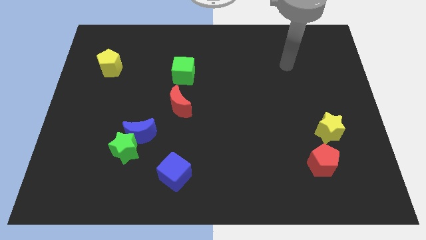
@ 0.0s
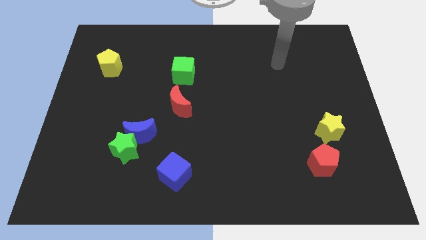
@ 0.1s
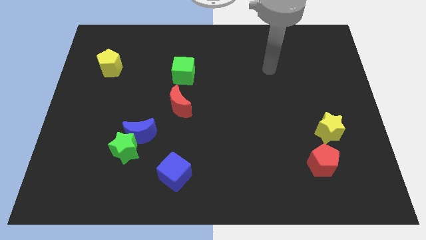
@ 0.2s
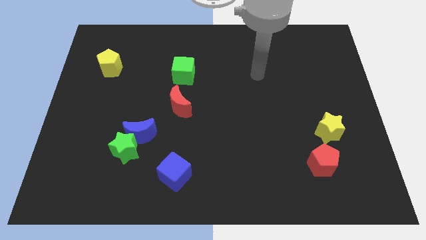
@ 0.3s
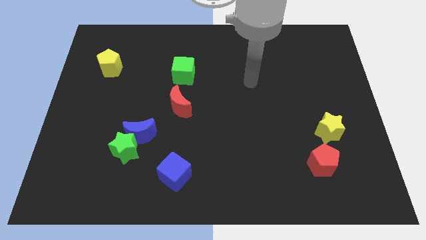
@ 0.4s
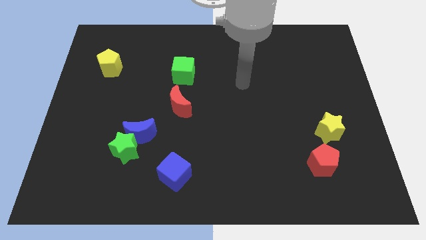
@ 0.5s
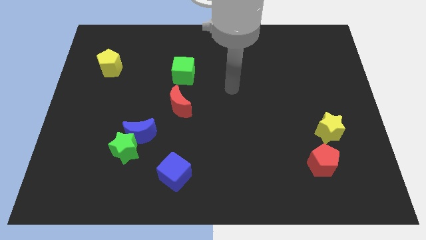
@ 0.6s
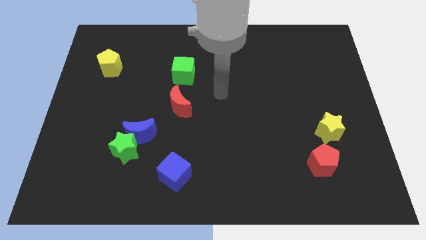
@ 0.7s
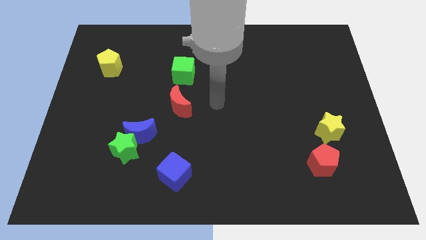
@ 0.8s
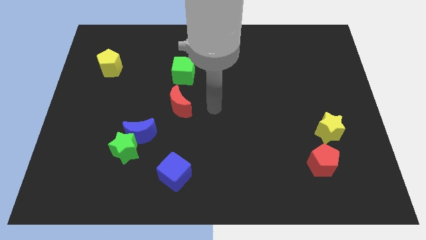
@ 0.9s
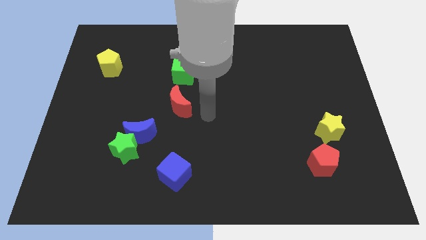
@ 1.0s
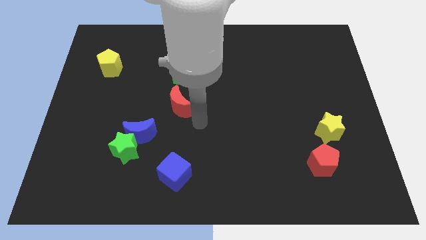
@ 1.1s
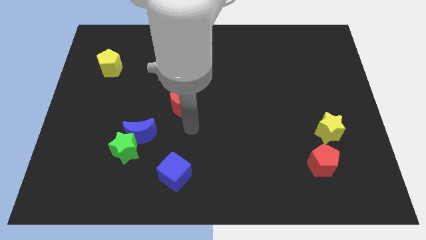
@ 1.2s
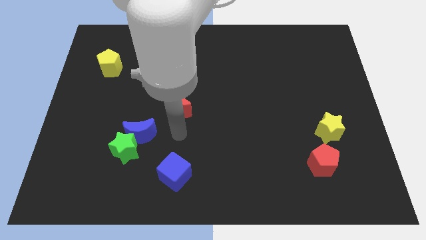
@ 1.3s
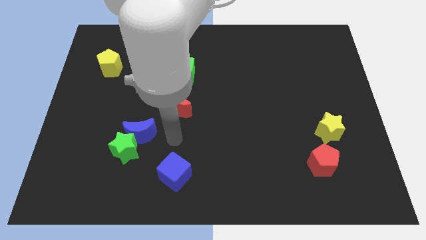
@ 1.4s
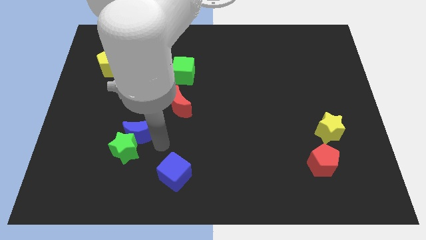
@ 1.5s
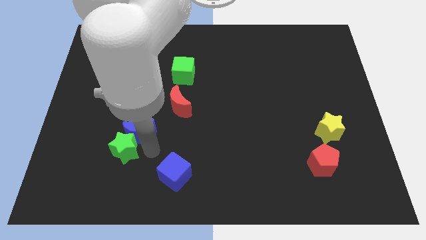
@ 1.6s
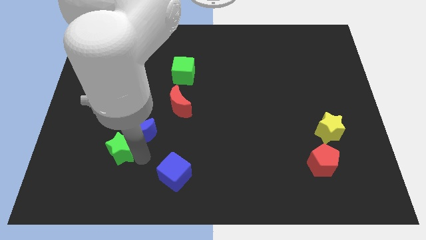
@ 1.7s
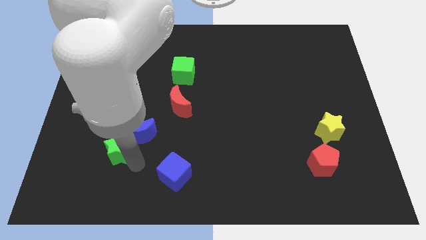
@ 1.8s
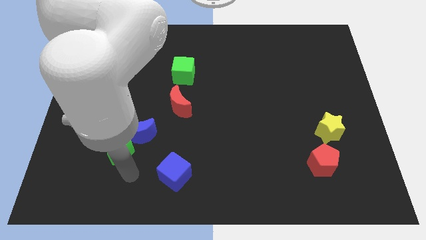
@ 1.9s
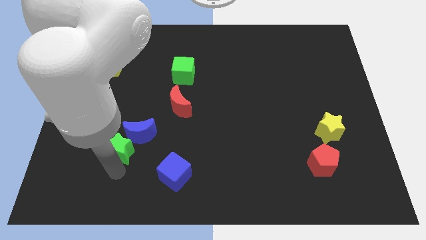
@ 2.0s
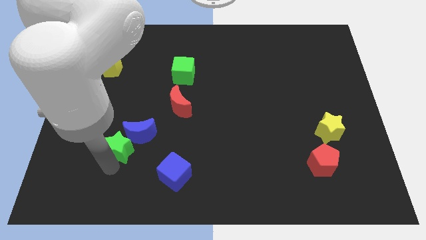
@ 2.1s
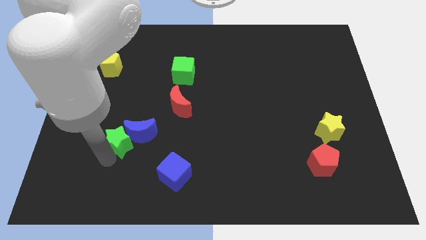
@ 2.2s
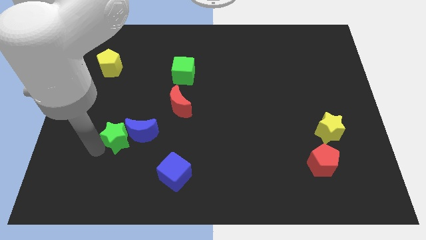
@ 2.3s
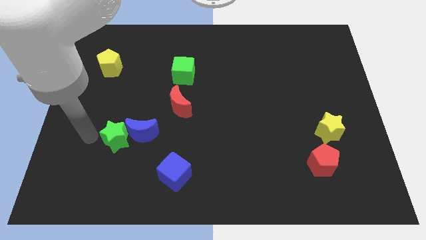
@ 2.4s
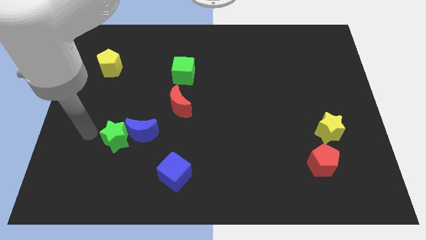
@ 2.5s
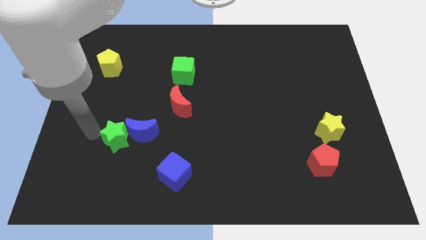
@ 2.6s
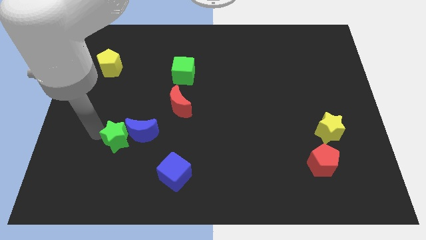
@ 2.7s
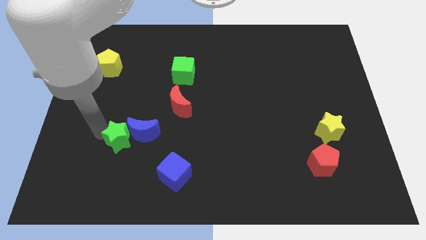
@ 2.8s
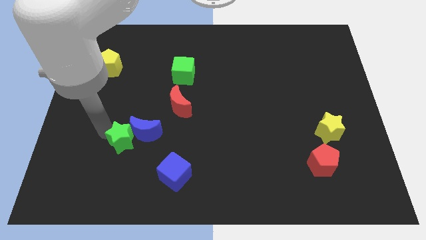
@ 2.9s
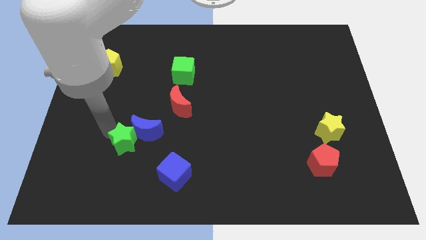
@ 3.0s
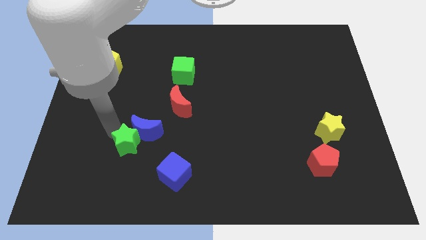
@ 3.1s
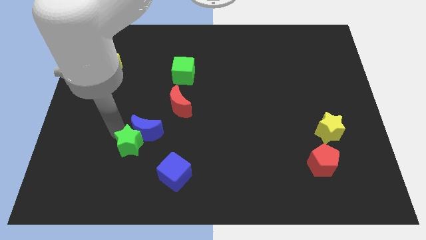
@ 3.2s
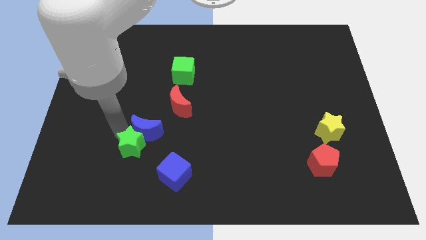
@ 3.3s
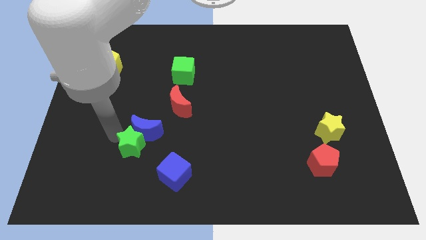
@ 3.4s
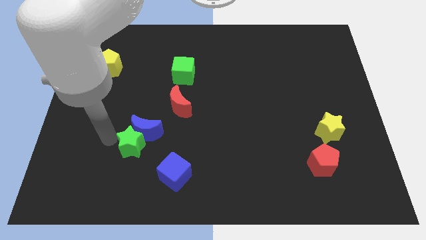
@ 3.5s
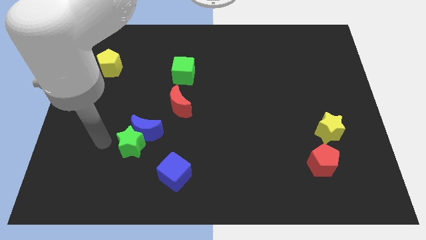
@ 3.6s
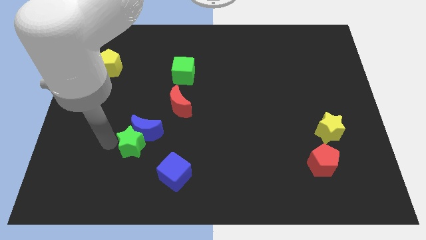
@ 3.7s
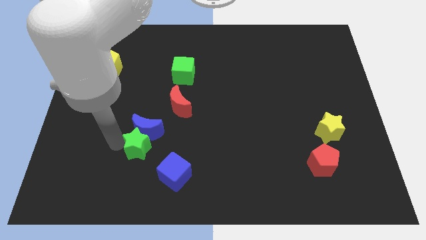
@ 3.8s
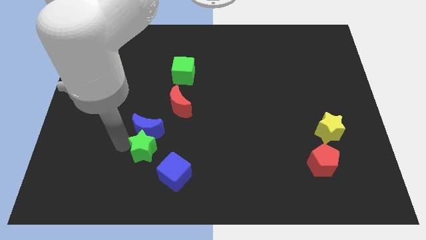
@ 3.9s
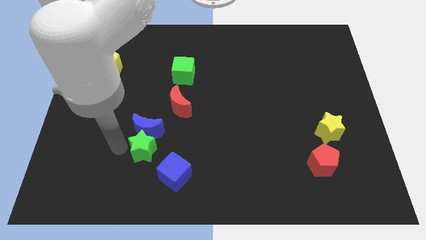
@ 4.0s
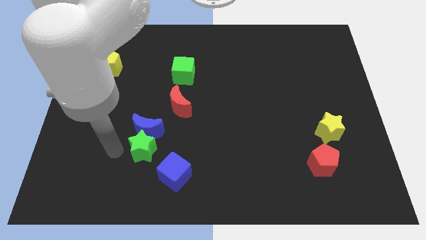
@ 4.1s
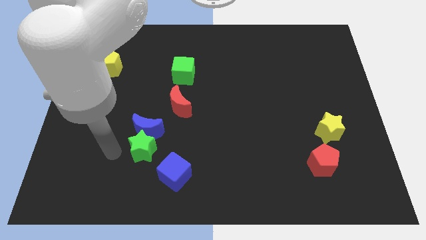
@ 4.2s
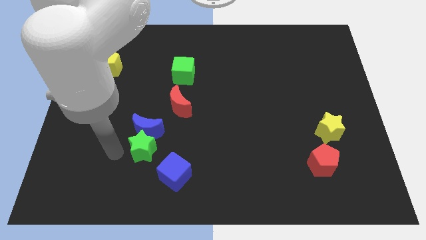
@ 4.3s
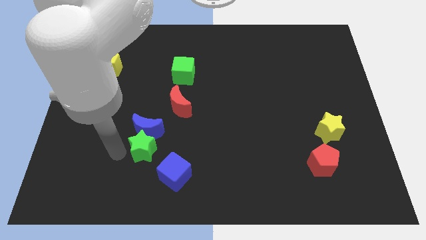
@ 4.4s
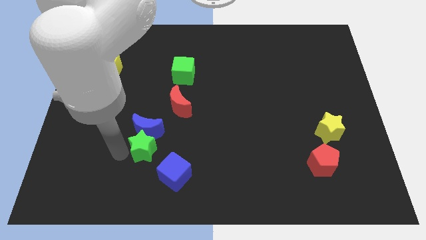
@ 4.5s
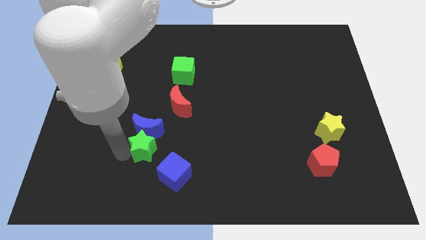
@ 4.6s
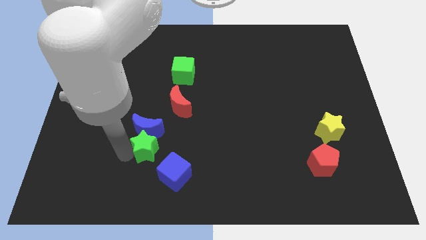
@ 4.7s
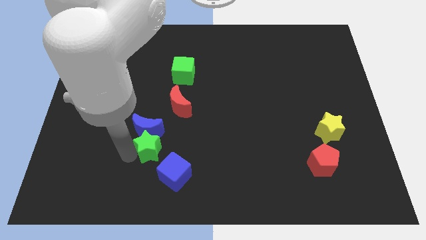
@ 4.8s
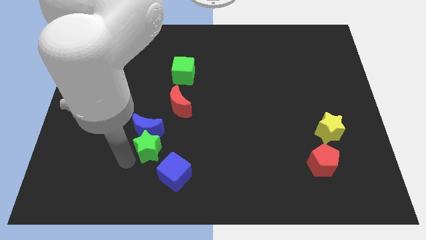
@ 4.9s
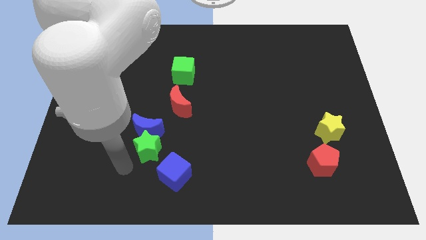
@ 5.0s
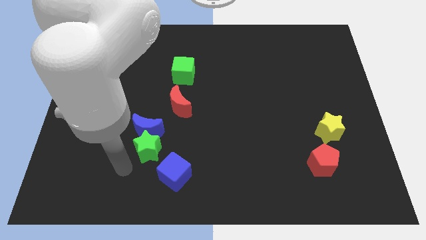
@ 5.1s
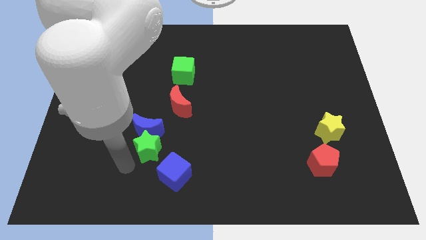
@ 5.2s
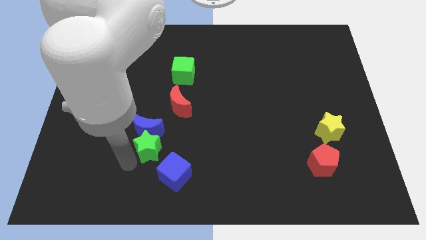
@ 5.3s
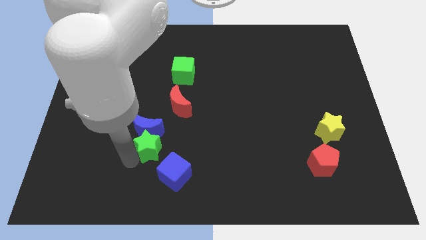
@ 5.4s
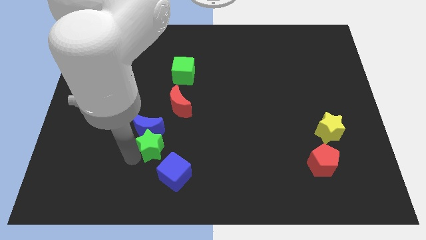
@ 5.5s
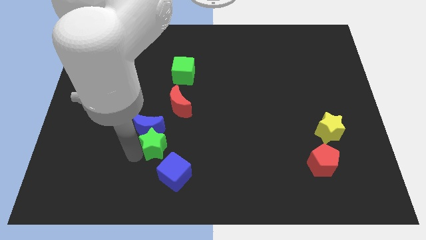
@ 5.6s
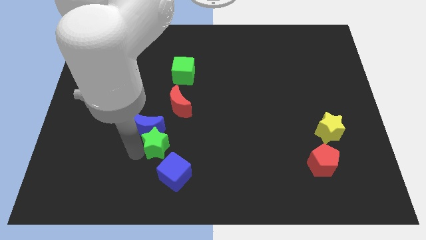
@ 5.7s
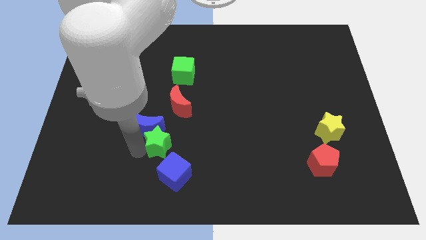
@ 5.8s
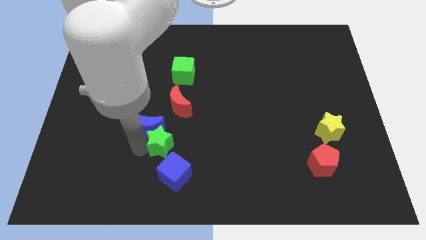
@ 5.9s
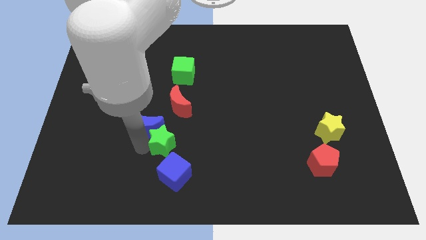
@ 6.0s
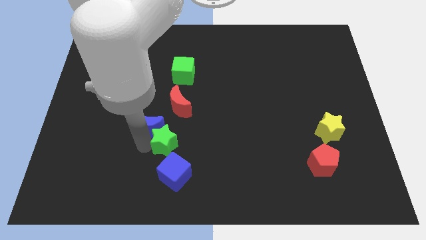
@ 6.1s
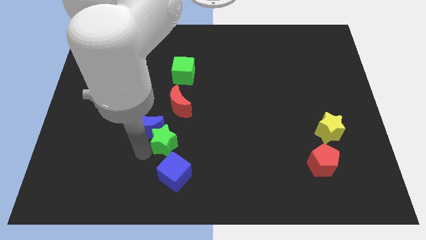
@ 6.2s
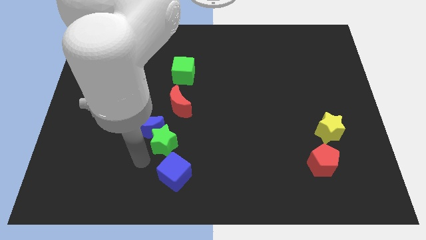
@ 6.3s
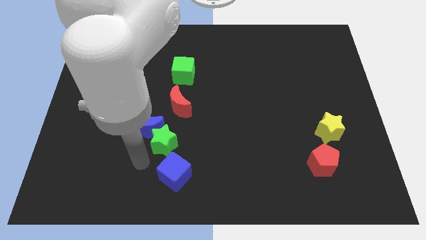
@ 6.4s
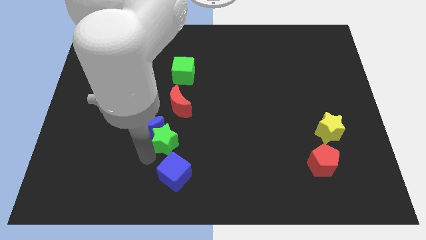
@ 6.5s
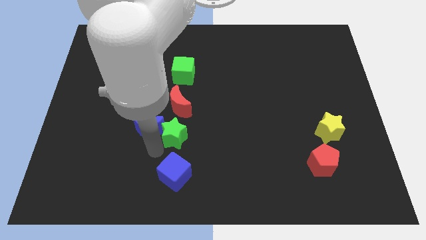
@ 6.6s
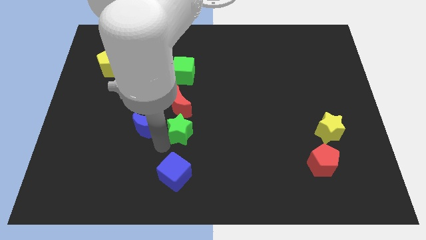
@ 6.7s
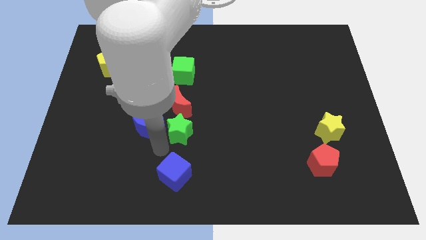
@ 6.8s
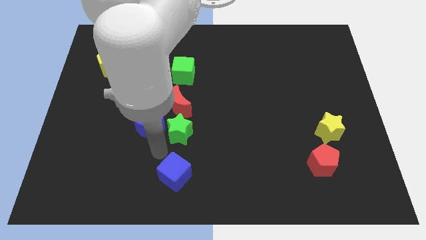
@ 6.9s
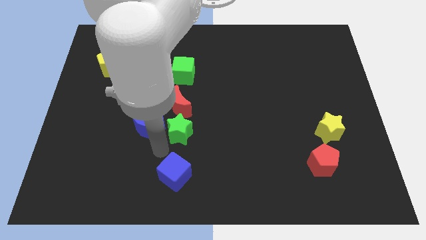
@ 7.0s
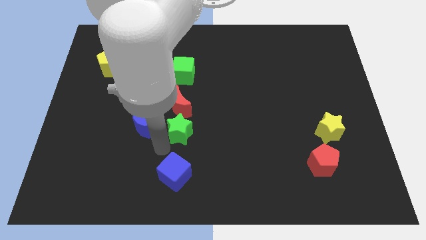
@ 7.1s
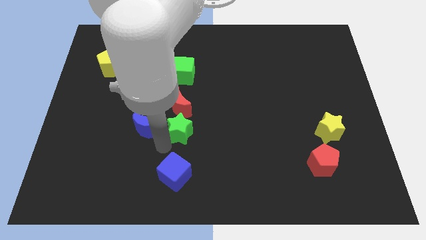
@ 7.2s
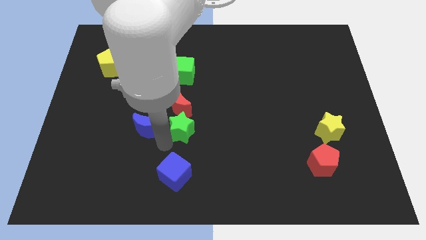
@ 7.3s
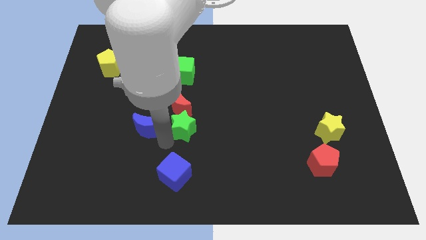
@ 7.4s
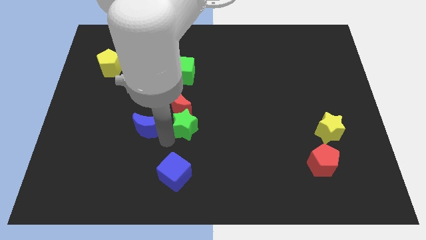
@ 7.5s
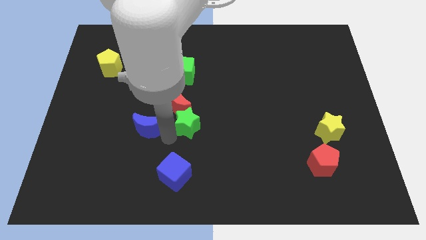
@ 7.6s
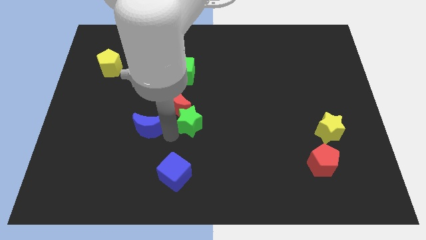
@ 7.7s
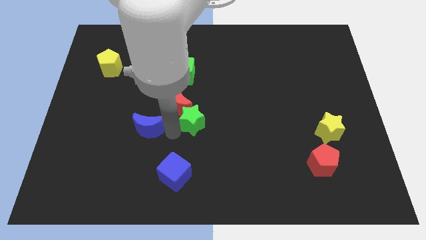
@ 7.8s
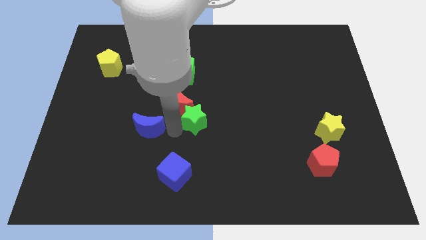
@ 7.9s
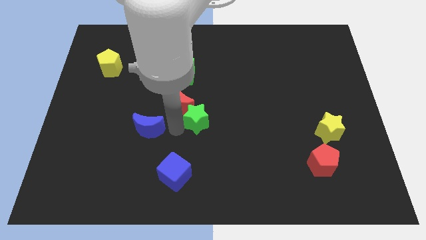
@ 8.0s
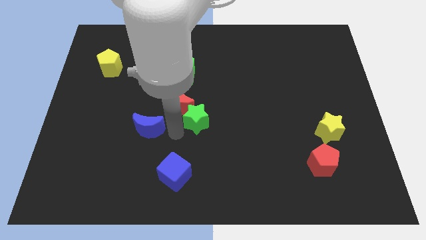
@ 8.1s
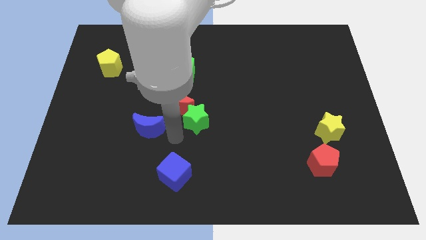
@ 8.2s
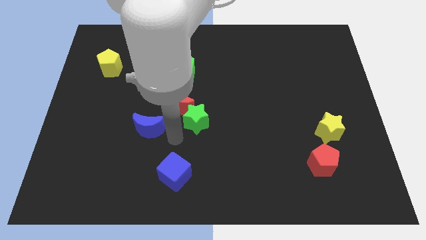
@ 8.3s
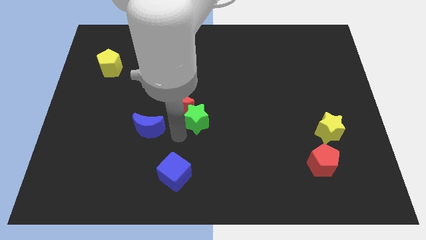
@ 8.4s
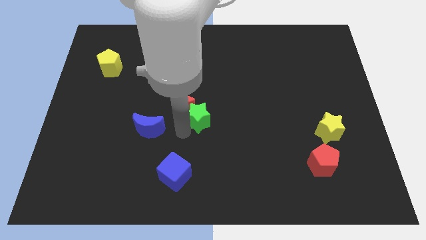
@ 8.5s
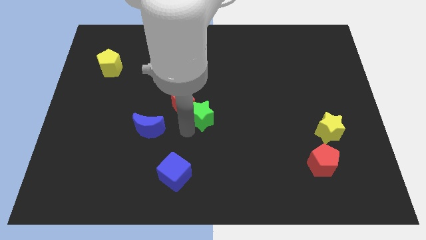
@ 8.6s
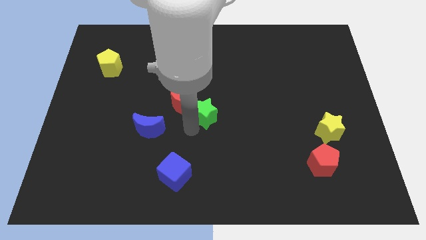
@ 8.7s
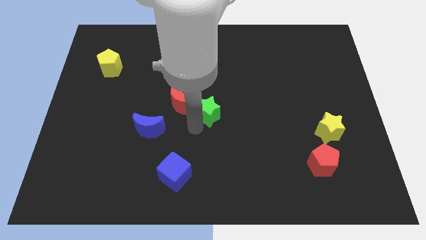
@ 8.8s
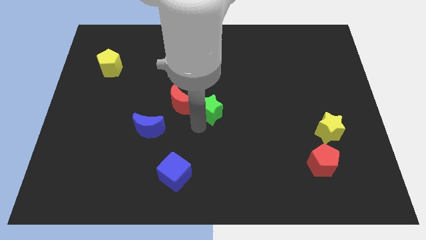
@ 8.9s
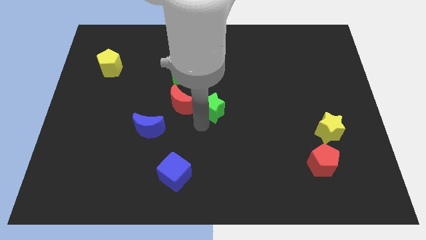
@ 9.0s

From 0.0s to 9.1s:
move the green star upwards and right diagonally
